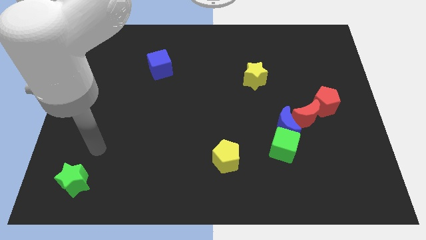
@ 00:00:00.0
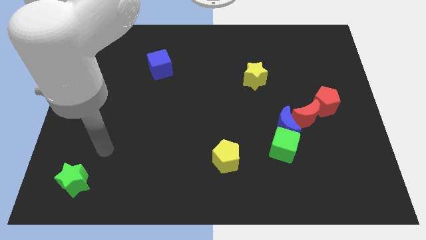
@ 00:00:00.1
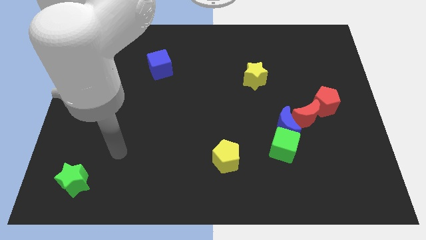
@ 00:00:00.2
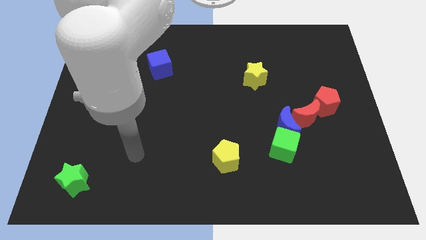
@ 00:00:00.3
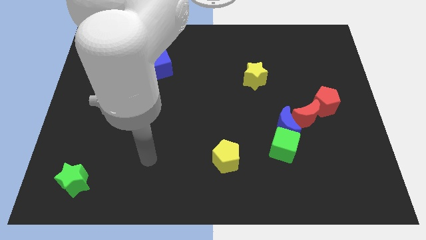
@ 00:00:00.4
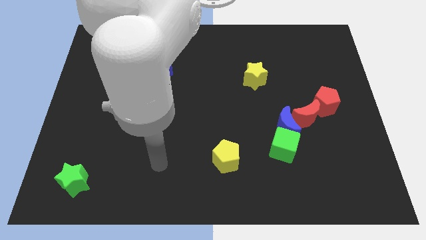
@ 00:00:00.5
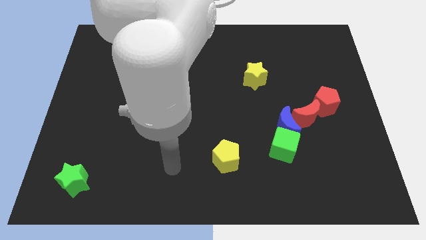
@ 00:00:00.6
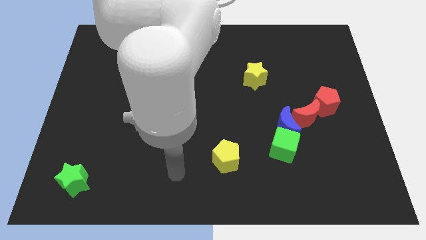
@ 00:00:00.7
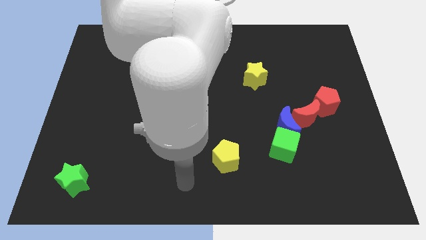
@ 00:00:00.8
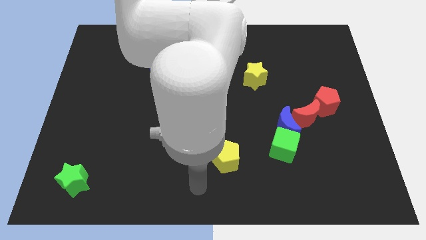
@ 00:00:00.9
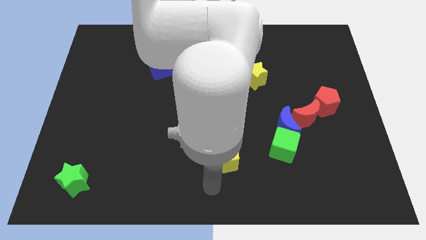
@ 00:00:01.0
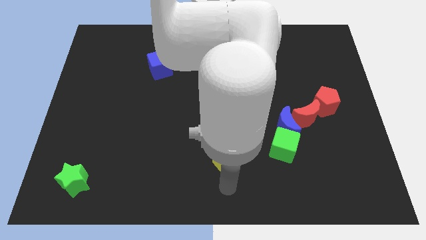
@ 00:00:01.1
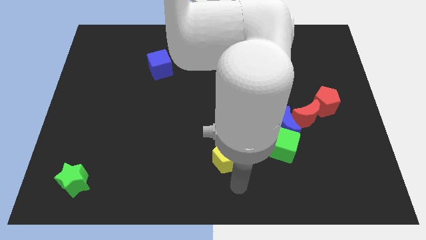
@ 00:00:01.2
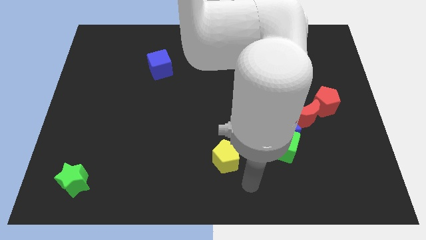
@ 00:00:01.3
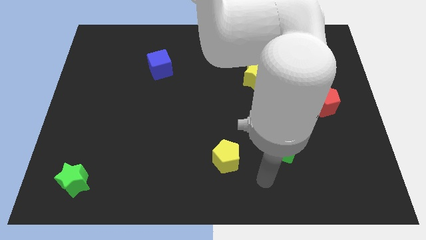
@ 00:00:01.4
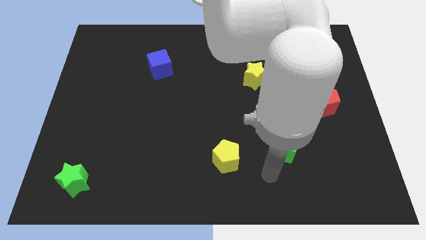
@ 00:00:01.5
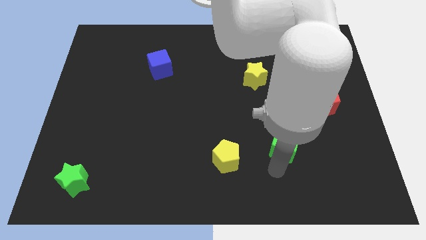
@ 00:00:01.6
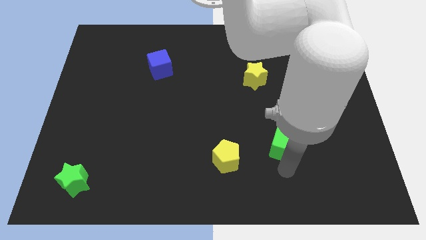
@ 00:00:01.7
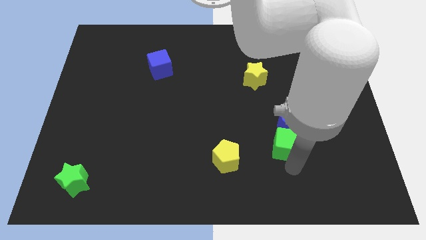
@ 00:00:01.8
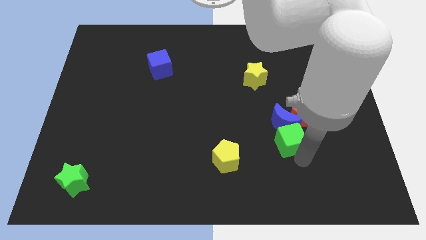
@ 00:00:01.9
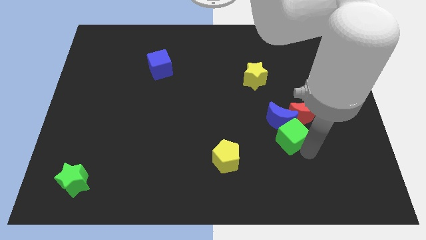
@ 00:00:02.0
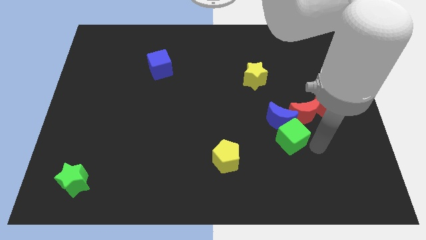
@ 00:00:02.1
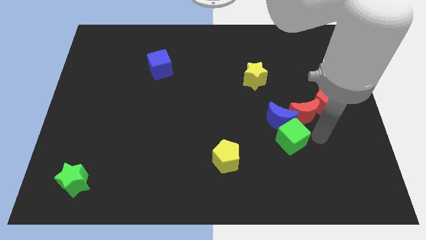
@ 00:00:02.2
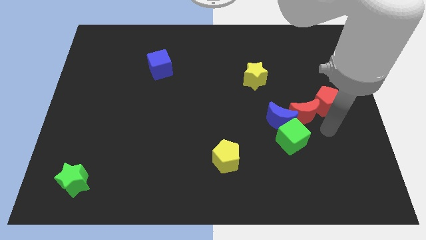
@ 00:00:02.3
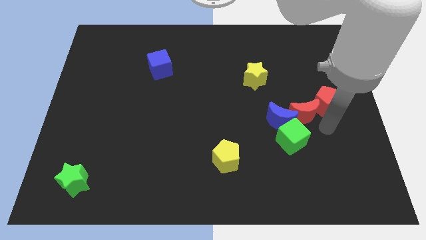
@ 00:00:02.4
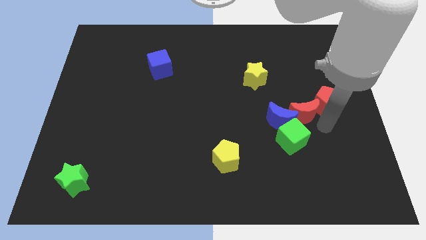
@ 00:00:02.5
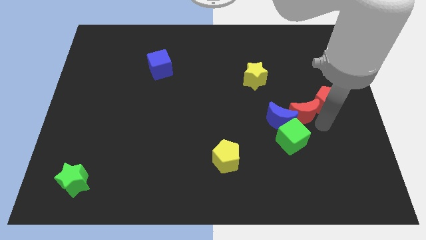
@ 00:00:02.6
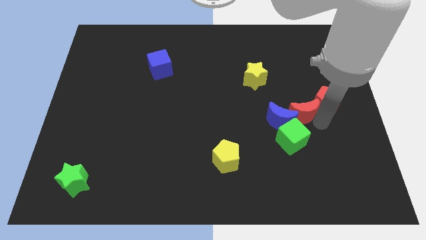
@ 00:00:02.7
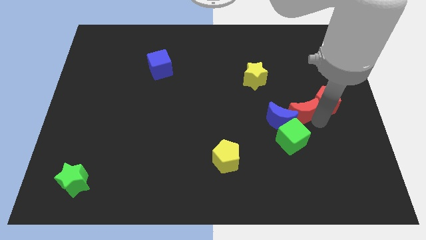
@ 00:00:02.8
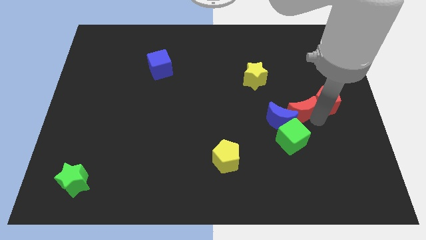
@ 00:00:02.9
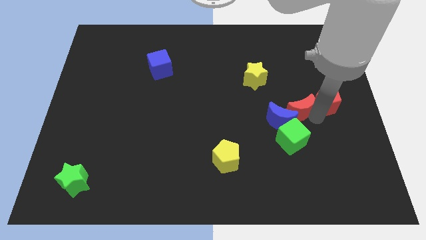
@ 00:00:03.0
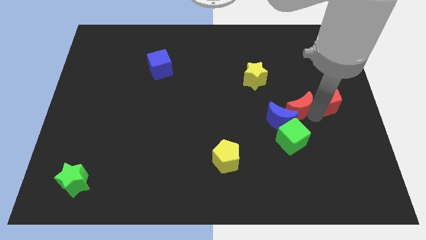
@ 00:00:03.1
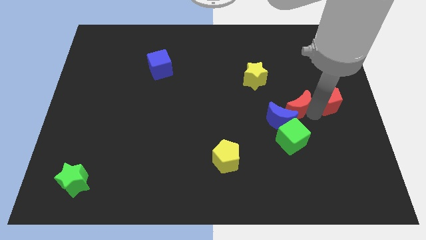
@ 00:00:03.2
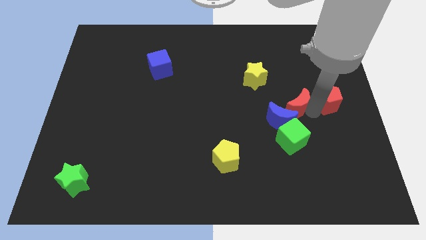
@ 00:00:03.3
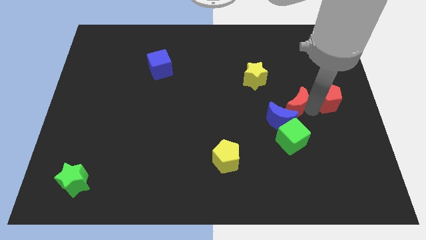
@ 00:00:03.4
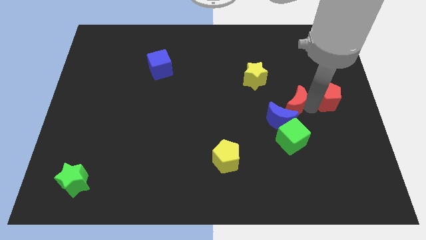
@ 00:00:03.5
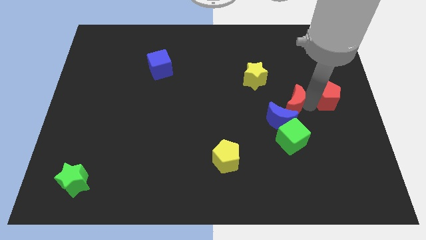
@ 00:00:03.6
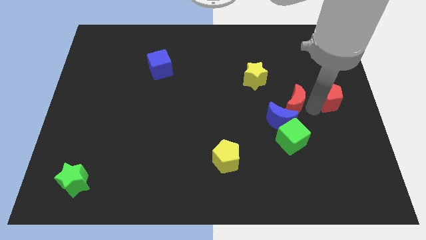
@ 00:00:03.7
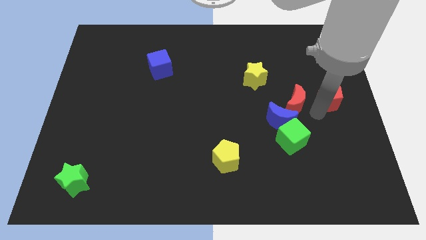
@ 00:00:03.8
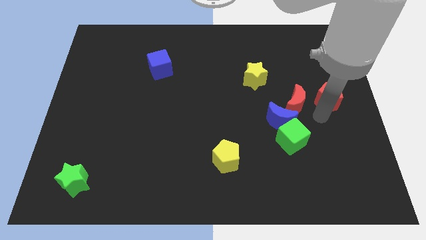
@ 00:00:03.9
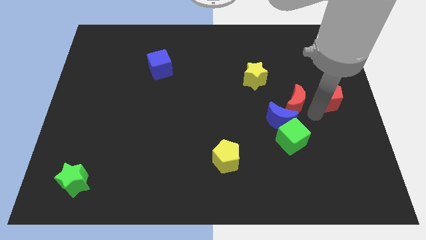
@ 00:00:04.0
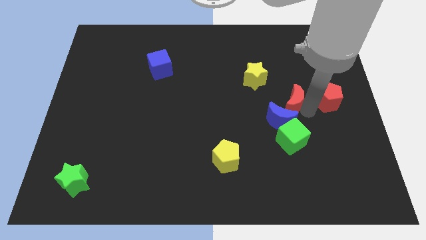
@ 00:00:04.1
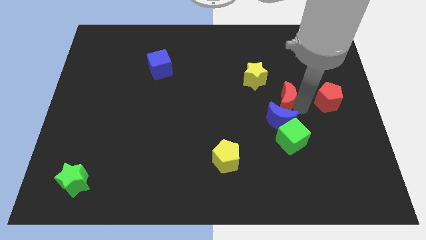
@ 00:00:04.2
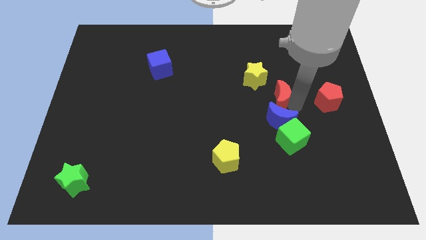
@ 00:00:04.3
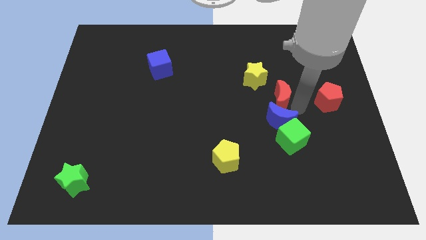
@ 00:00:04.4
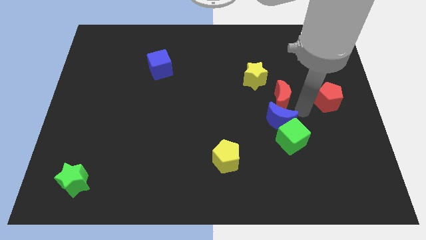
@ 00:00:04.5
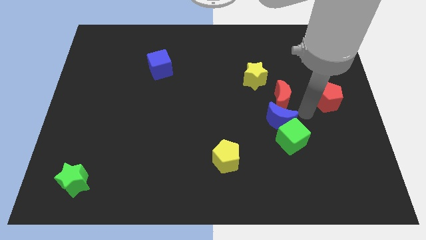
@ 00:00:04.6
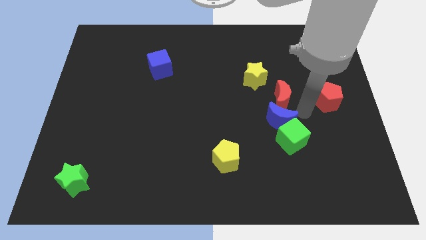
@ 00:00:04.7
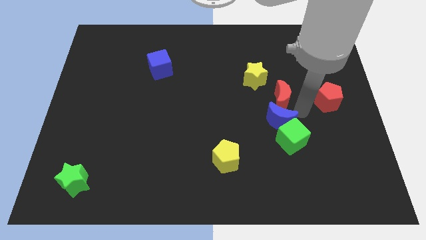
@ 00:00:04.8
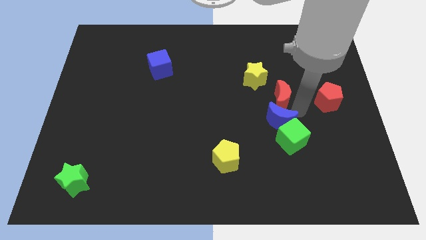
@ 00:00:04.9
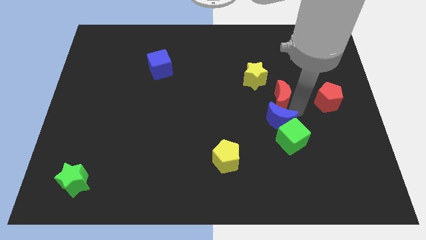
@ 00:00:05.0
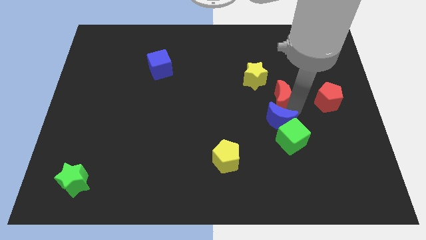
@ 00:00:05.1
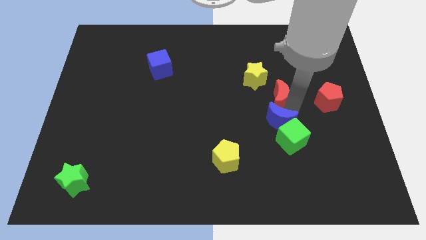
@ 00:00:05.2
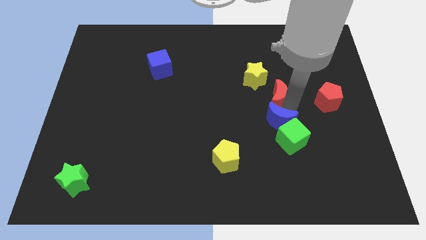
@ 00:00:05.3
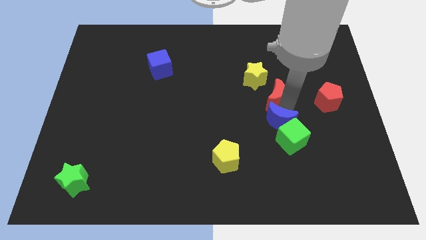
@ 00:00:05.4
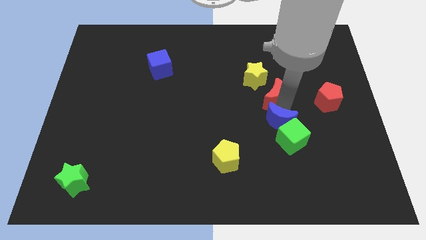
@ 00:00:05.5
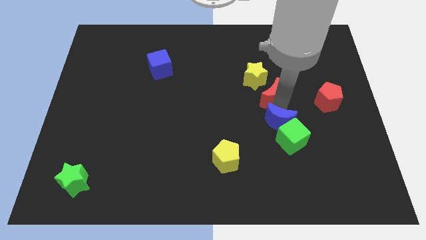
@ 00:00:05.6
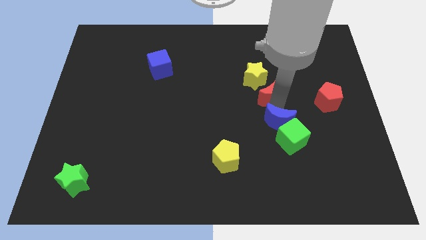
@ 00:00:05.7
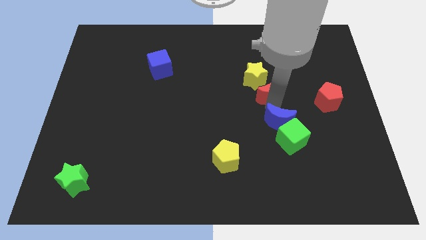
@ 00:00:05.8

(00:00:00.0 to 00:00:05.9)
push the red moon next to the yellow star

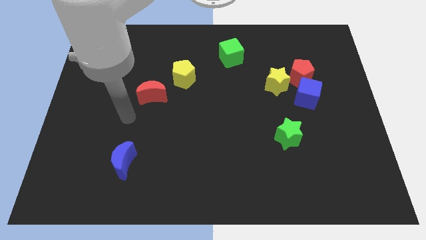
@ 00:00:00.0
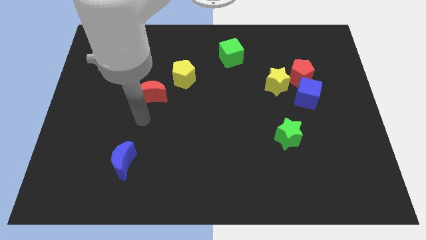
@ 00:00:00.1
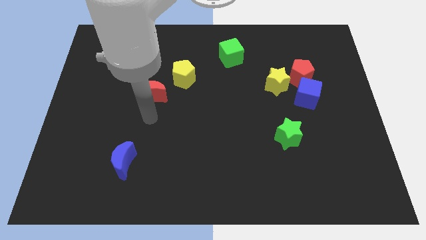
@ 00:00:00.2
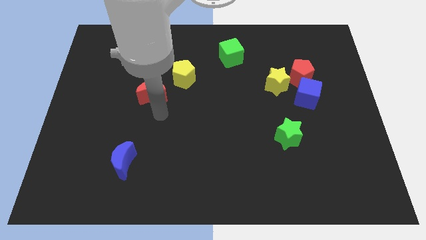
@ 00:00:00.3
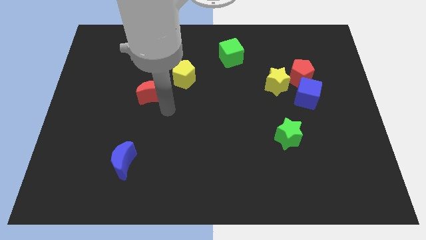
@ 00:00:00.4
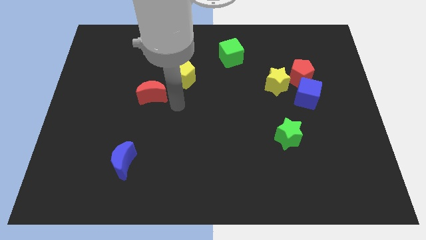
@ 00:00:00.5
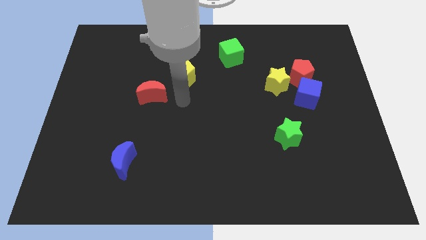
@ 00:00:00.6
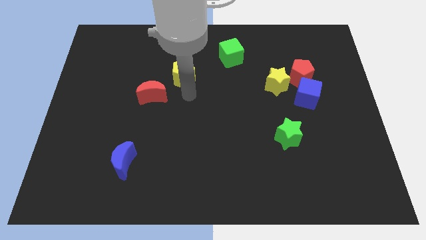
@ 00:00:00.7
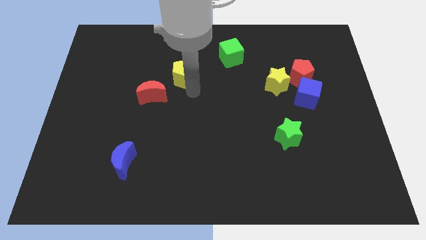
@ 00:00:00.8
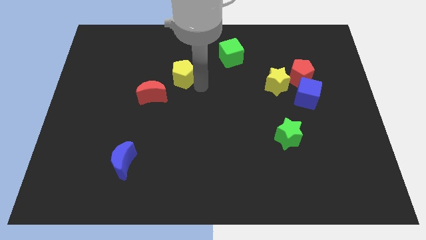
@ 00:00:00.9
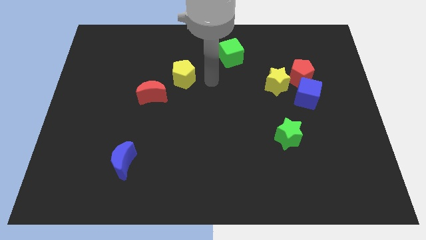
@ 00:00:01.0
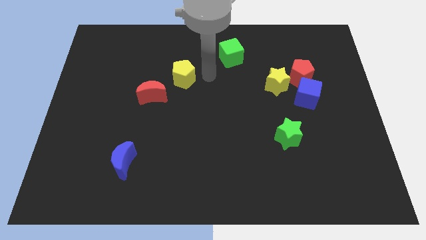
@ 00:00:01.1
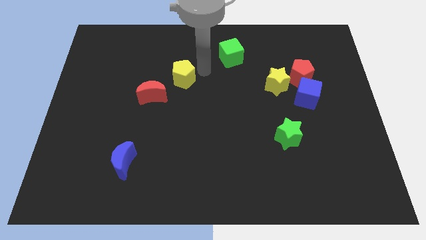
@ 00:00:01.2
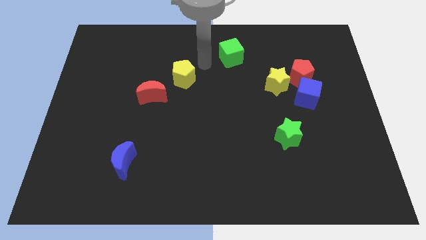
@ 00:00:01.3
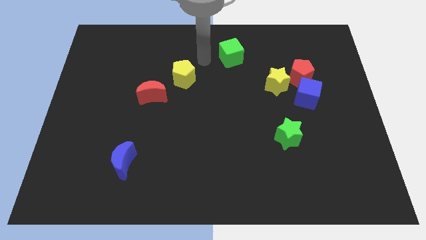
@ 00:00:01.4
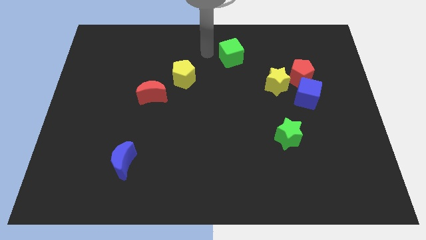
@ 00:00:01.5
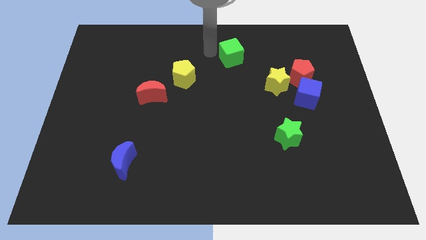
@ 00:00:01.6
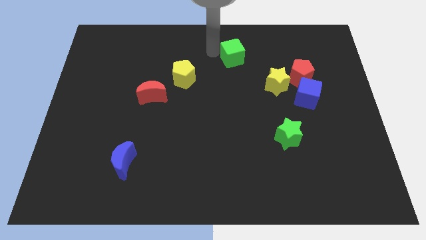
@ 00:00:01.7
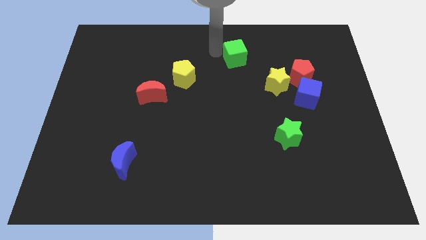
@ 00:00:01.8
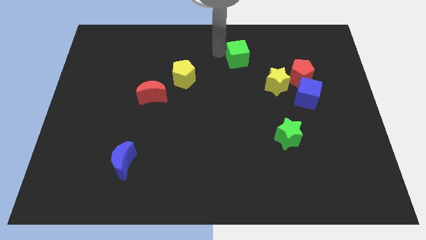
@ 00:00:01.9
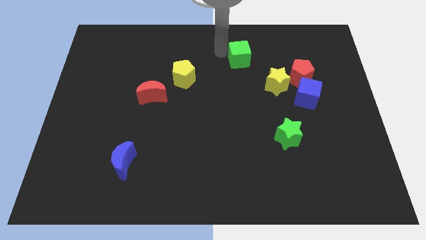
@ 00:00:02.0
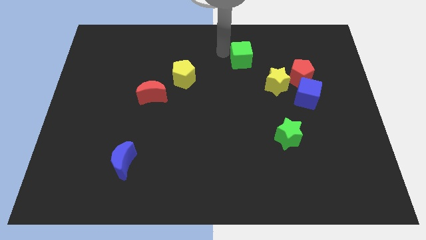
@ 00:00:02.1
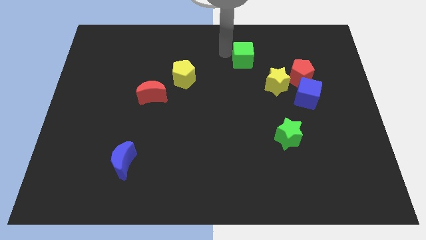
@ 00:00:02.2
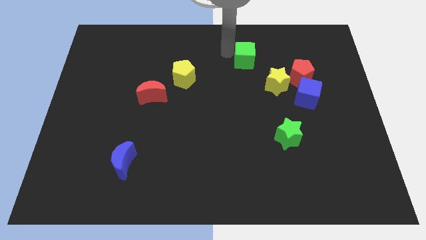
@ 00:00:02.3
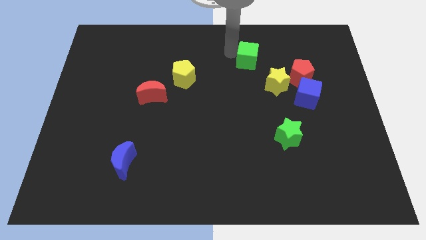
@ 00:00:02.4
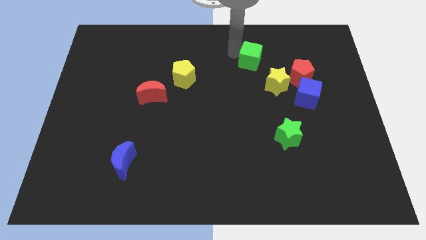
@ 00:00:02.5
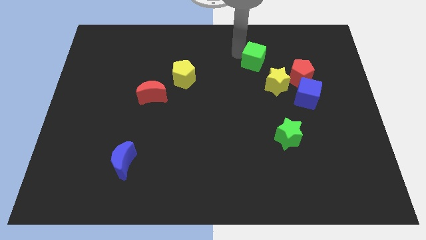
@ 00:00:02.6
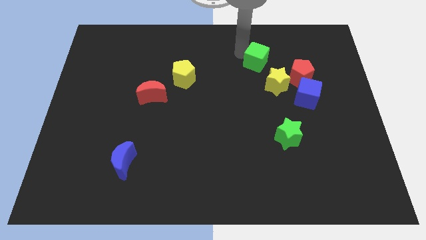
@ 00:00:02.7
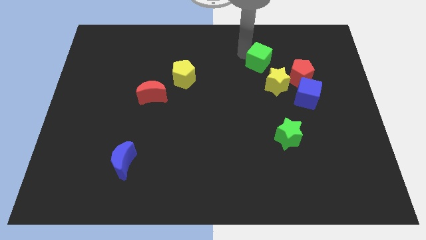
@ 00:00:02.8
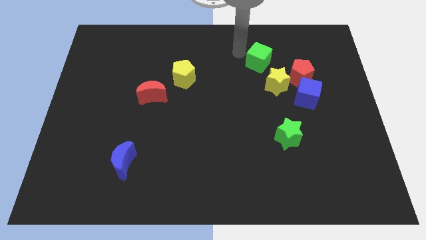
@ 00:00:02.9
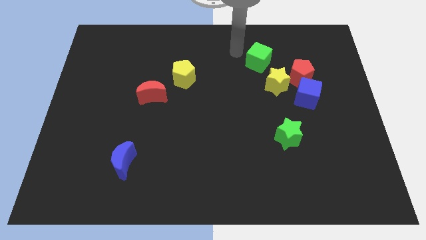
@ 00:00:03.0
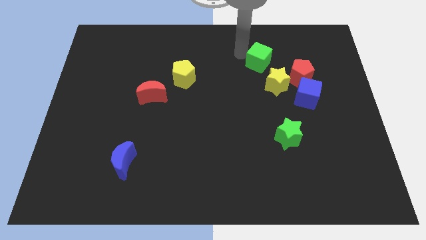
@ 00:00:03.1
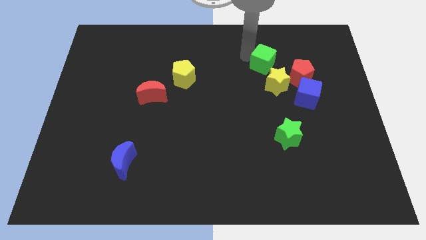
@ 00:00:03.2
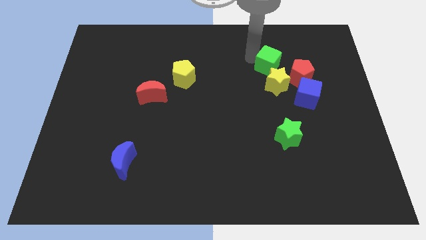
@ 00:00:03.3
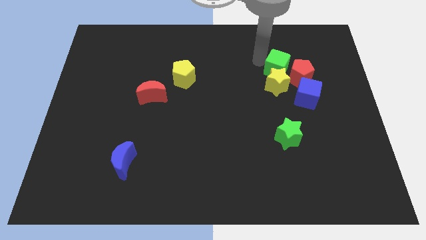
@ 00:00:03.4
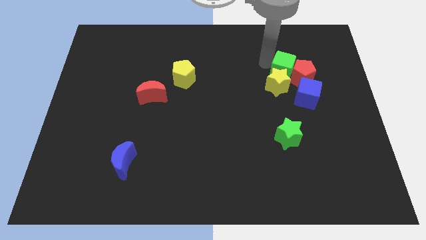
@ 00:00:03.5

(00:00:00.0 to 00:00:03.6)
slide the green cube next to the red pentagon
